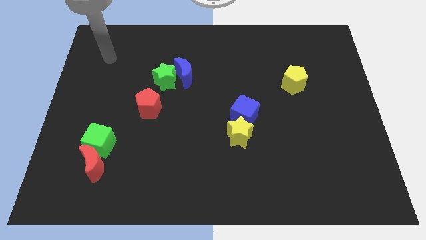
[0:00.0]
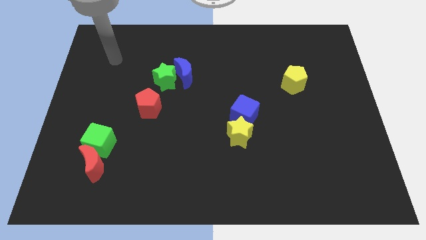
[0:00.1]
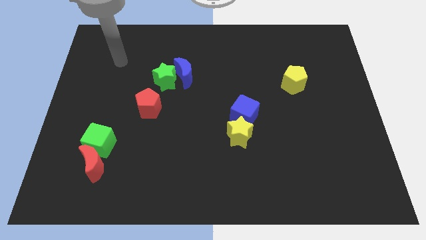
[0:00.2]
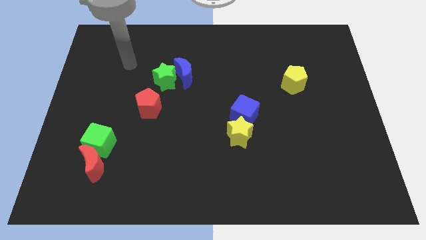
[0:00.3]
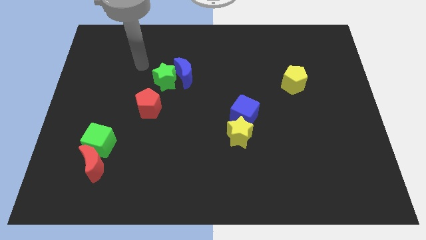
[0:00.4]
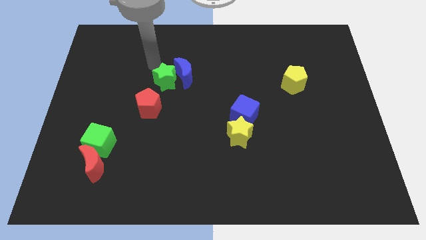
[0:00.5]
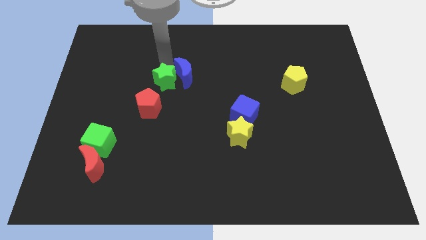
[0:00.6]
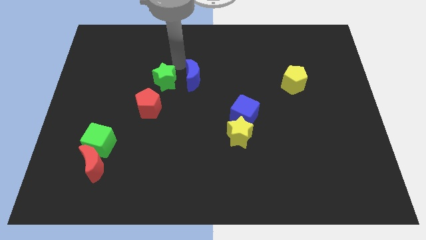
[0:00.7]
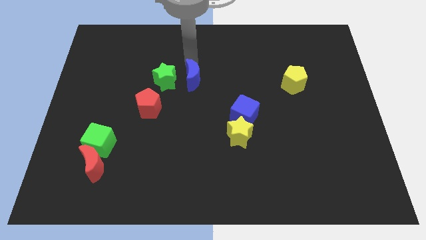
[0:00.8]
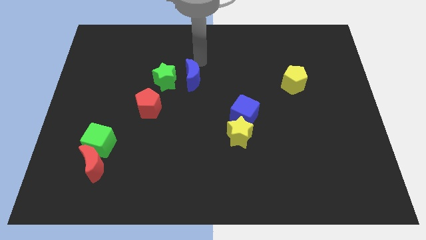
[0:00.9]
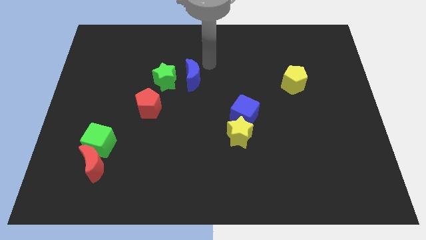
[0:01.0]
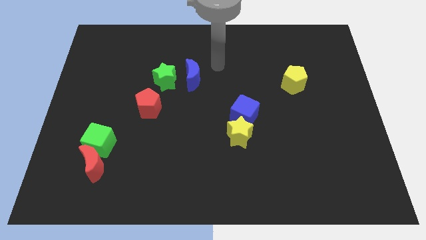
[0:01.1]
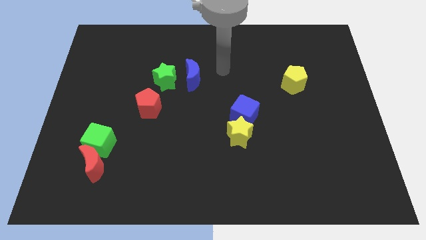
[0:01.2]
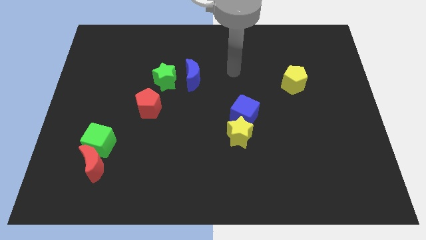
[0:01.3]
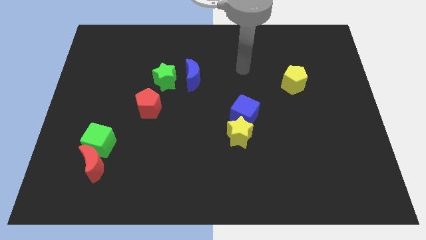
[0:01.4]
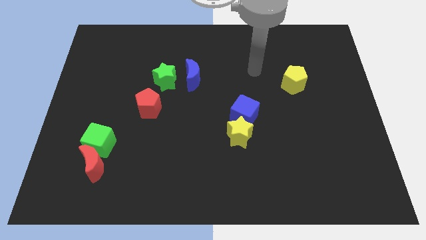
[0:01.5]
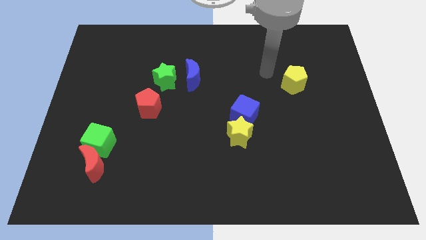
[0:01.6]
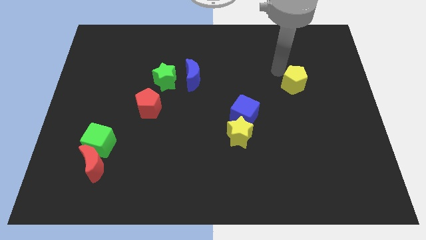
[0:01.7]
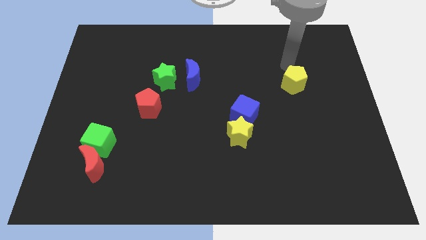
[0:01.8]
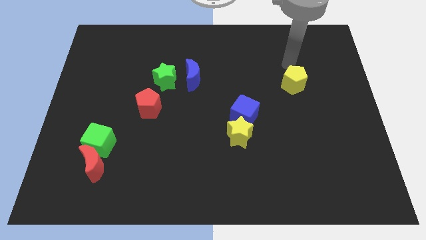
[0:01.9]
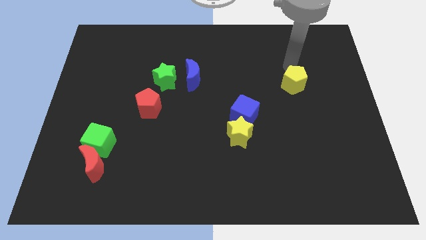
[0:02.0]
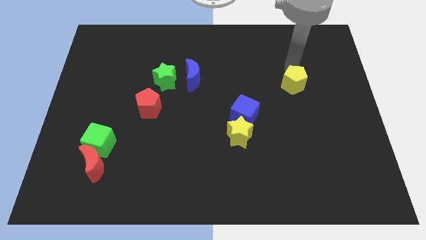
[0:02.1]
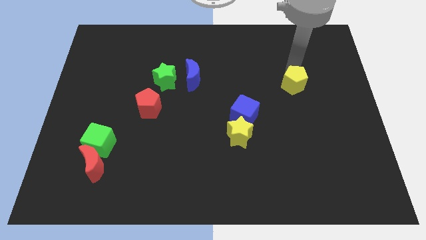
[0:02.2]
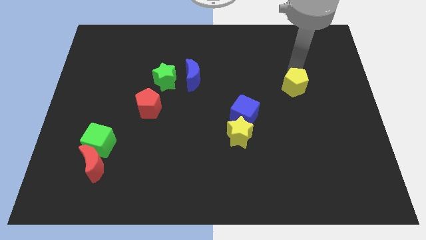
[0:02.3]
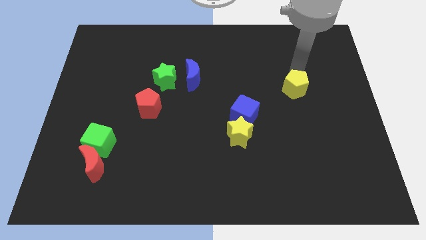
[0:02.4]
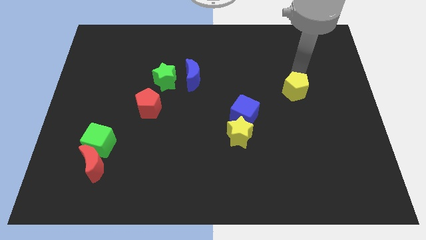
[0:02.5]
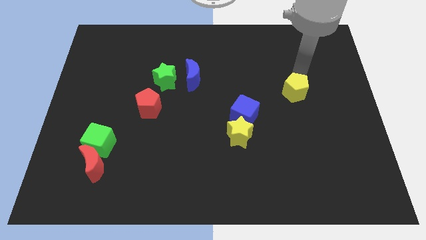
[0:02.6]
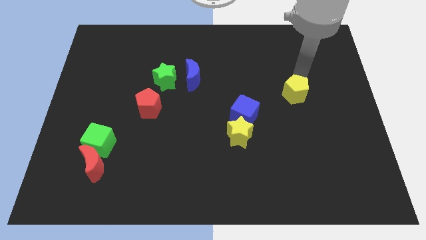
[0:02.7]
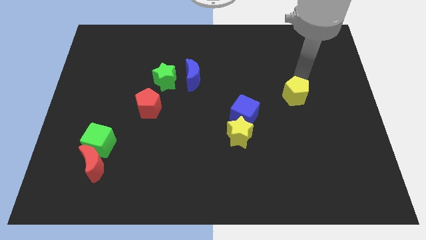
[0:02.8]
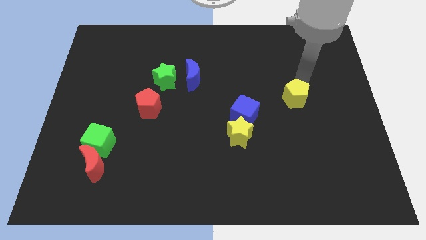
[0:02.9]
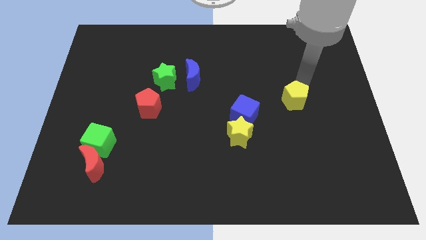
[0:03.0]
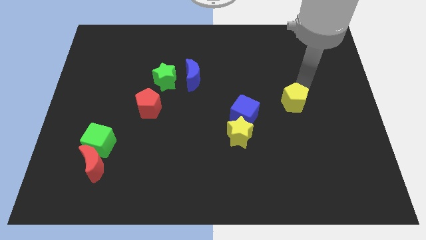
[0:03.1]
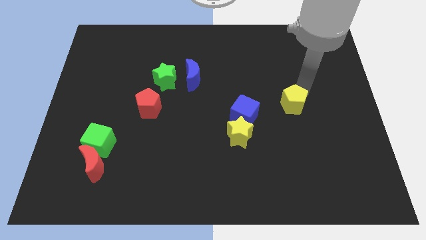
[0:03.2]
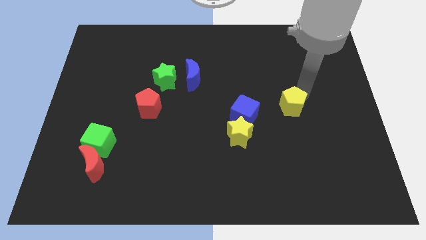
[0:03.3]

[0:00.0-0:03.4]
slide the yellow pentagon downwards somewhat

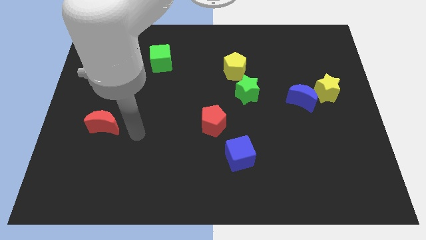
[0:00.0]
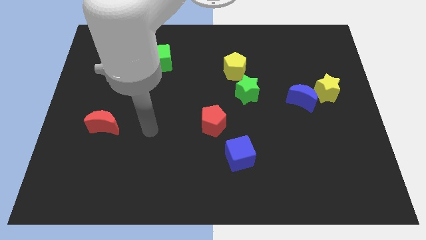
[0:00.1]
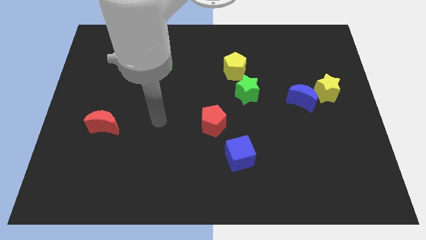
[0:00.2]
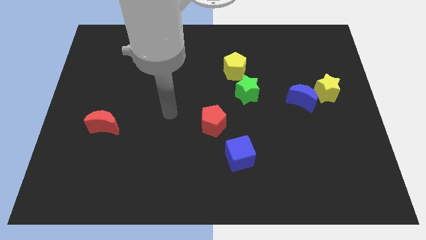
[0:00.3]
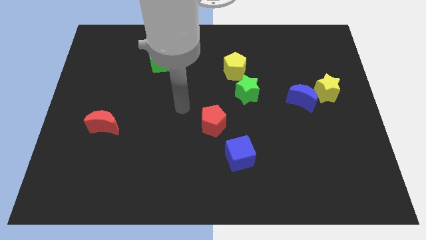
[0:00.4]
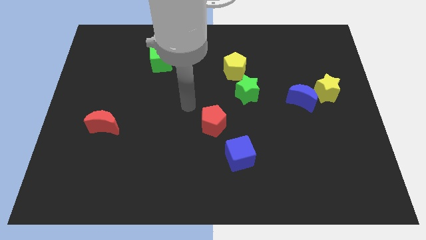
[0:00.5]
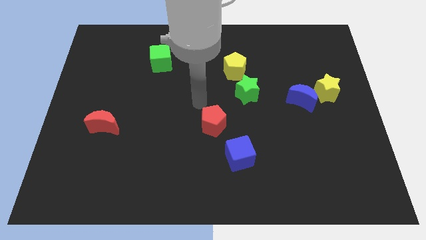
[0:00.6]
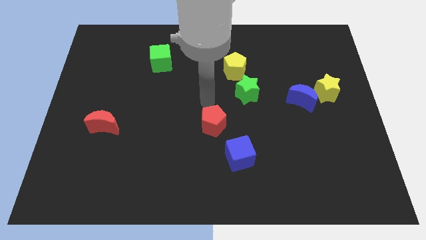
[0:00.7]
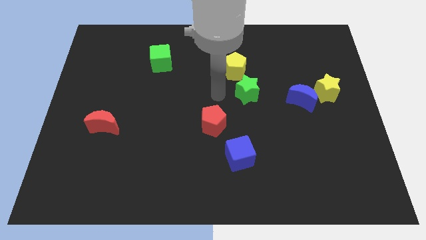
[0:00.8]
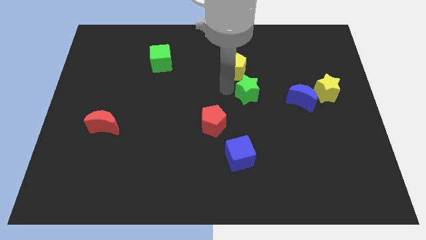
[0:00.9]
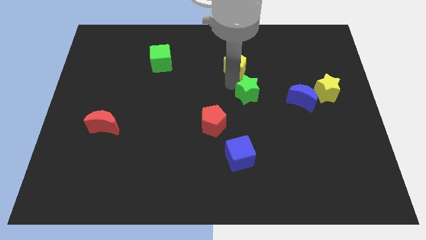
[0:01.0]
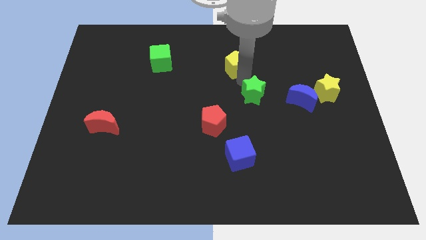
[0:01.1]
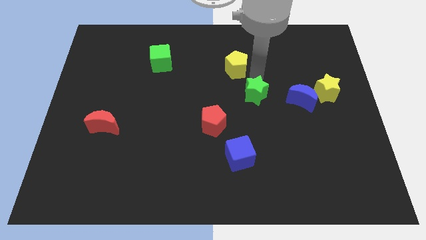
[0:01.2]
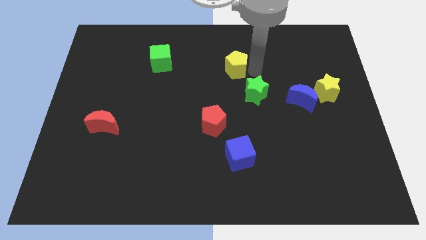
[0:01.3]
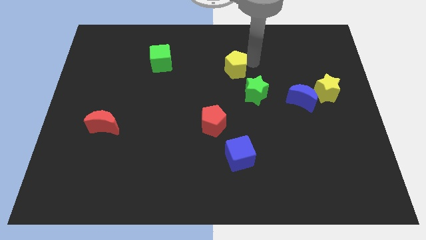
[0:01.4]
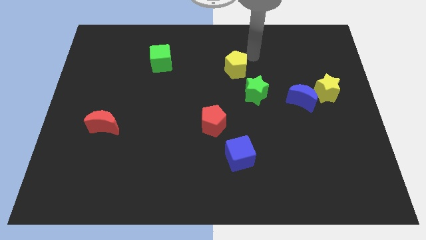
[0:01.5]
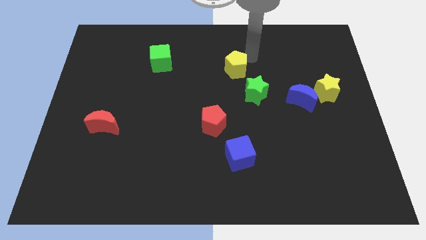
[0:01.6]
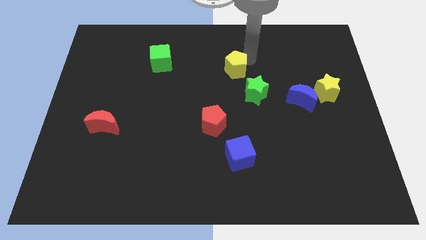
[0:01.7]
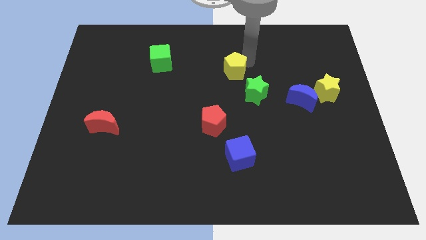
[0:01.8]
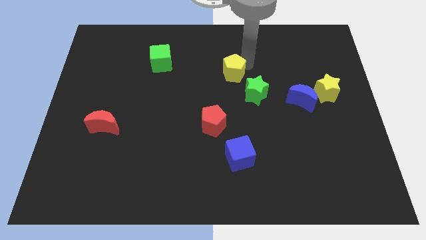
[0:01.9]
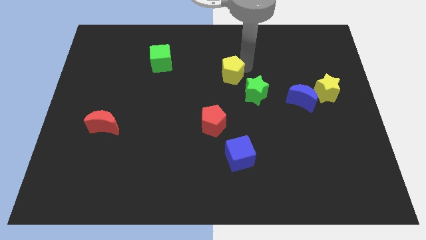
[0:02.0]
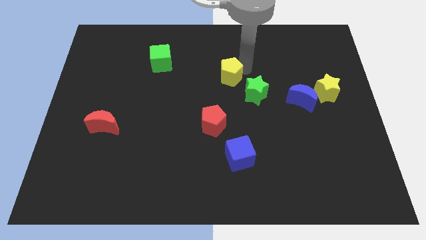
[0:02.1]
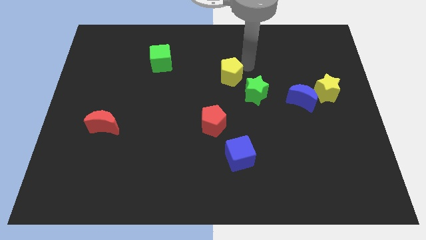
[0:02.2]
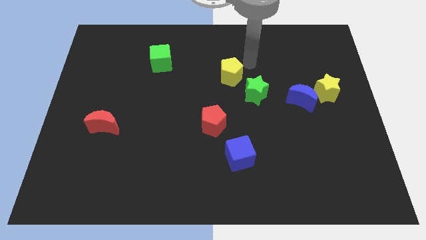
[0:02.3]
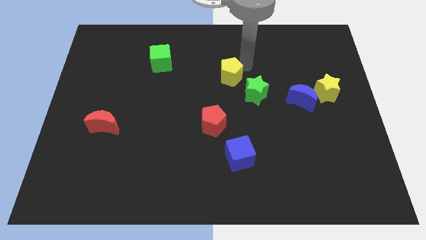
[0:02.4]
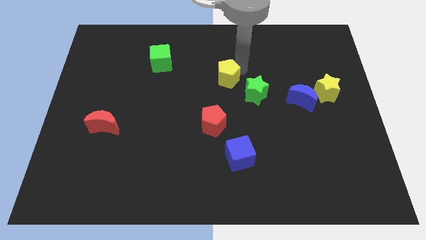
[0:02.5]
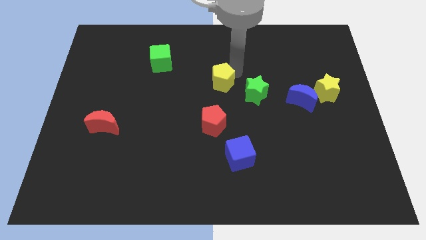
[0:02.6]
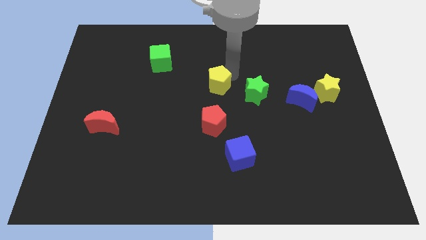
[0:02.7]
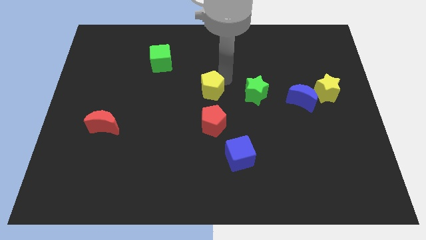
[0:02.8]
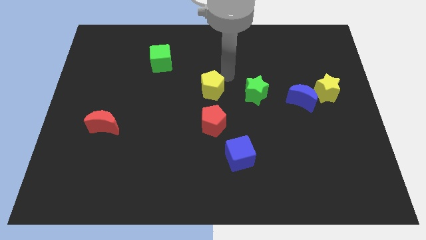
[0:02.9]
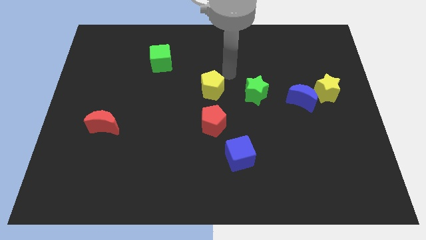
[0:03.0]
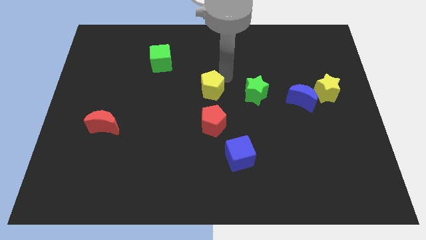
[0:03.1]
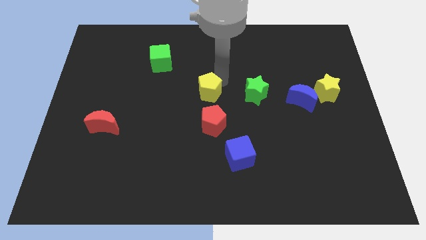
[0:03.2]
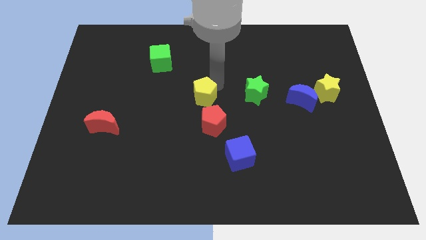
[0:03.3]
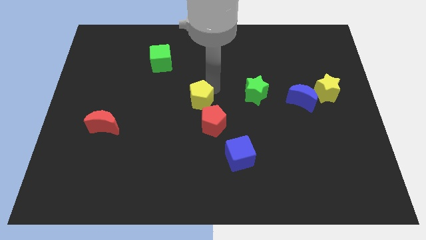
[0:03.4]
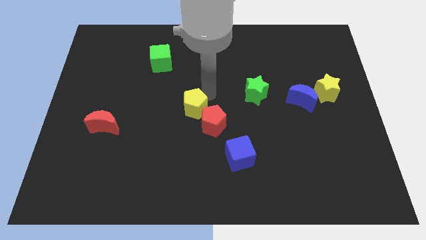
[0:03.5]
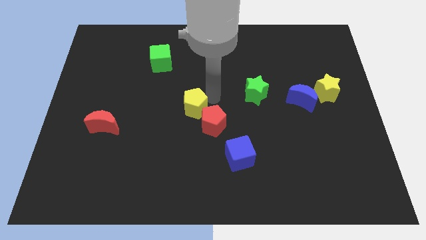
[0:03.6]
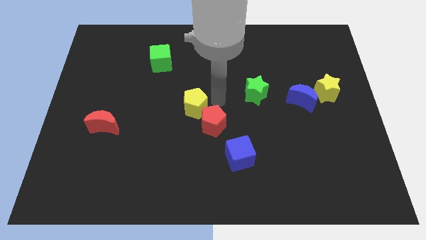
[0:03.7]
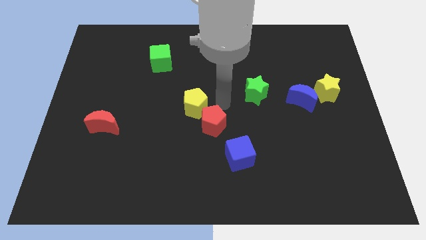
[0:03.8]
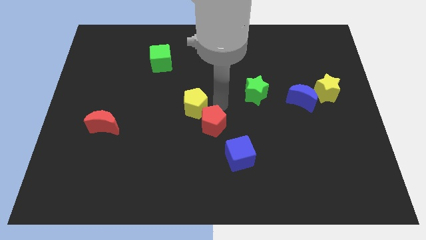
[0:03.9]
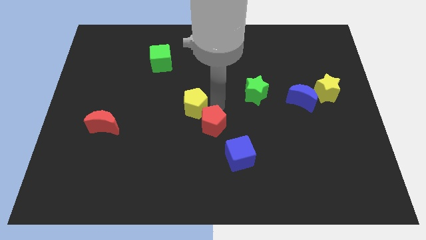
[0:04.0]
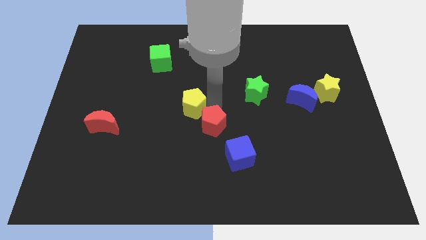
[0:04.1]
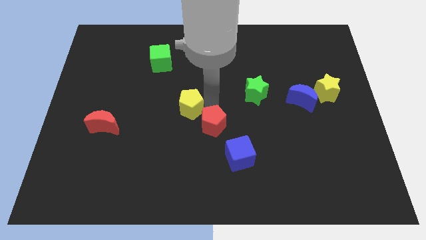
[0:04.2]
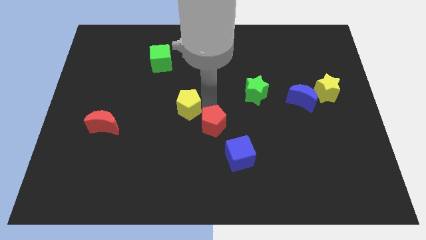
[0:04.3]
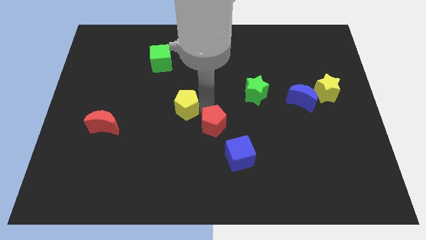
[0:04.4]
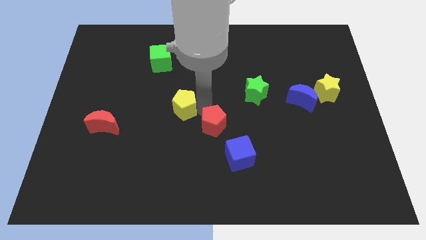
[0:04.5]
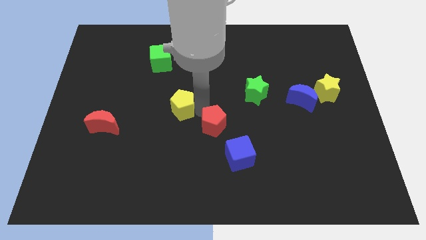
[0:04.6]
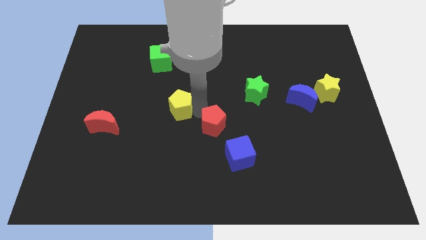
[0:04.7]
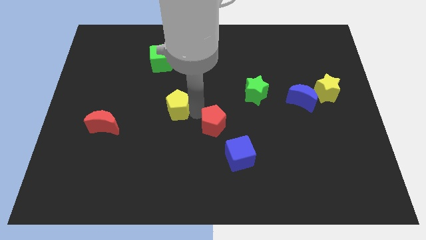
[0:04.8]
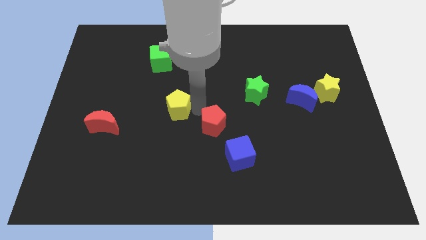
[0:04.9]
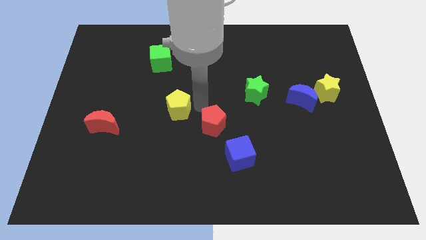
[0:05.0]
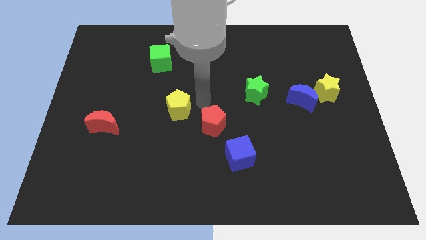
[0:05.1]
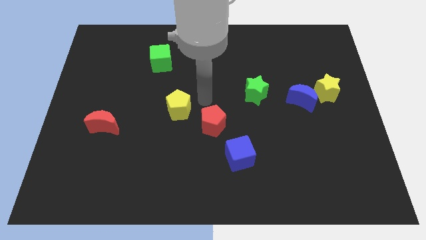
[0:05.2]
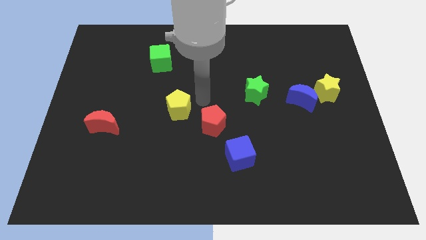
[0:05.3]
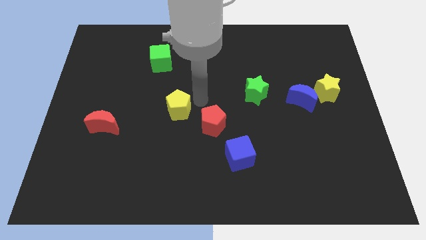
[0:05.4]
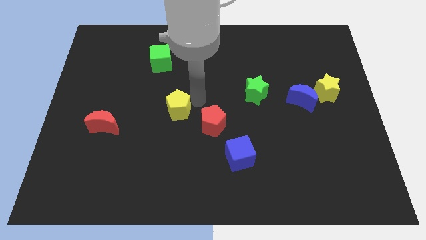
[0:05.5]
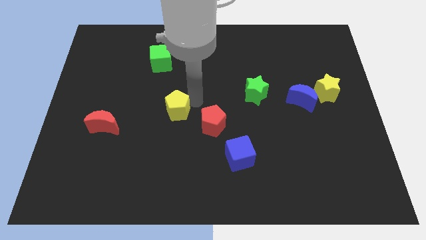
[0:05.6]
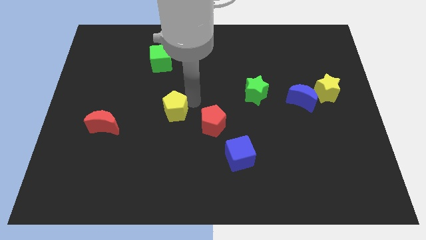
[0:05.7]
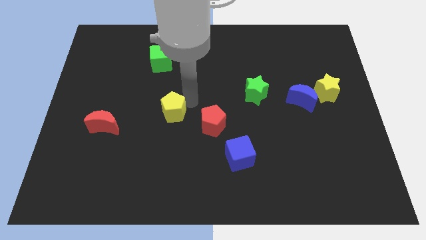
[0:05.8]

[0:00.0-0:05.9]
move the yellow pentagon diagonally down and left
